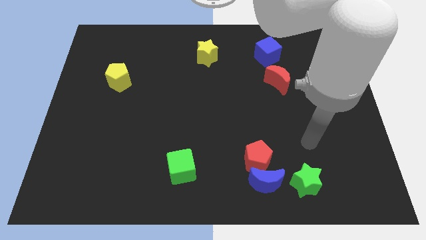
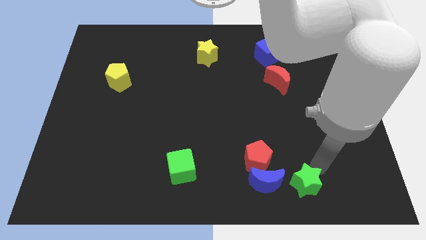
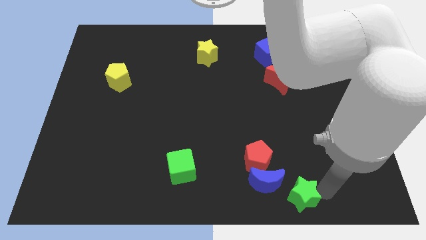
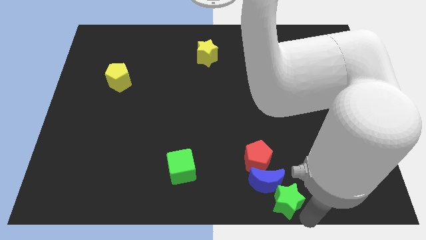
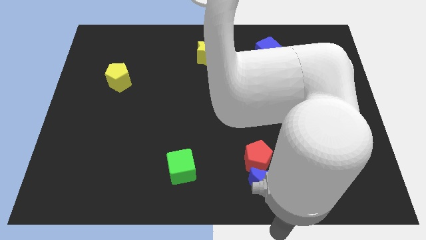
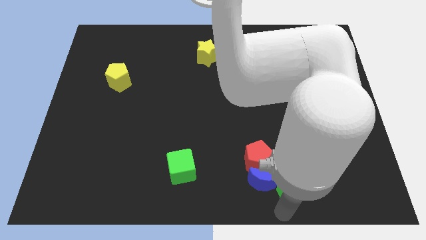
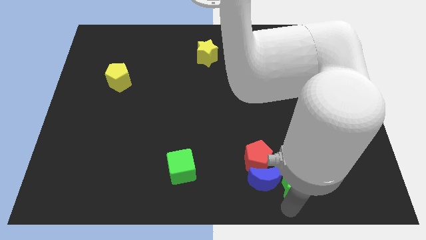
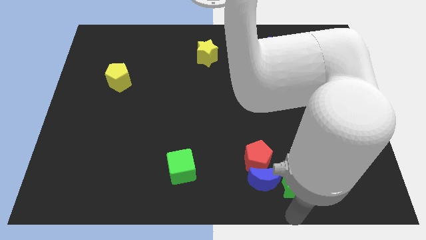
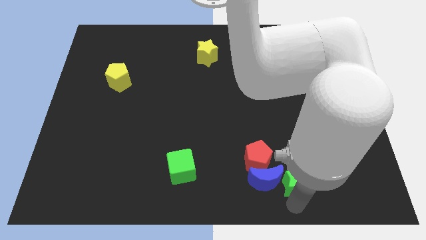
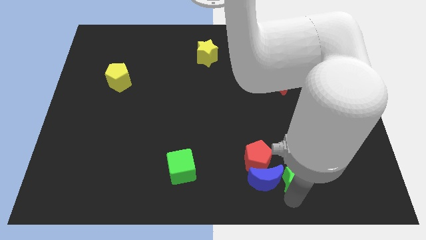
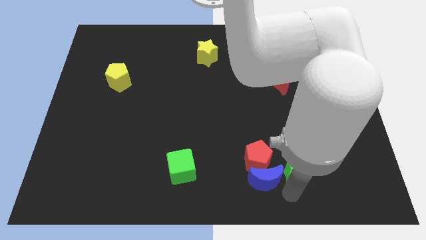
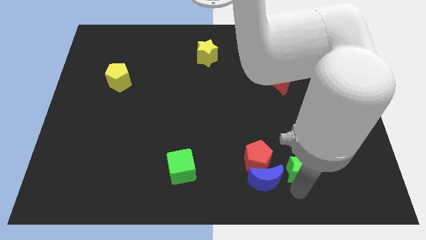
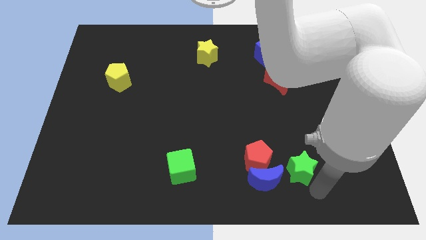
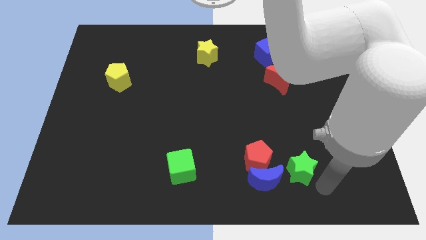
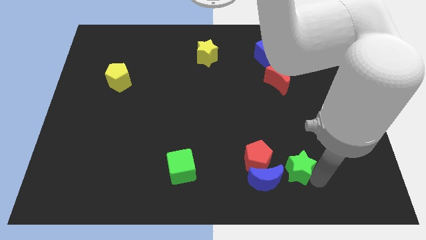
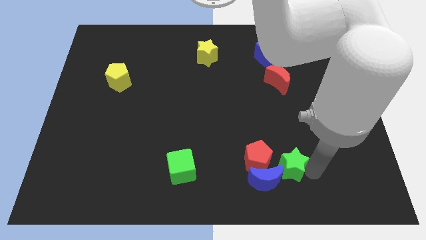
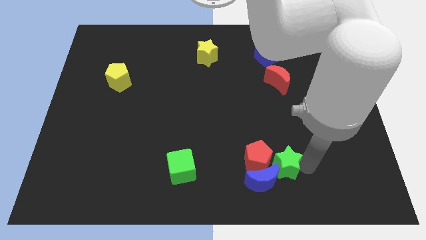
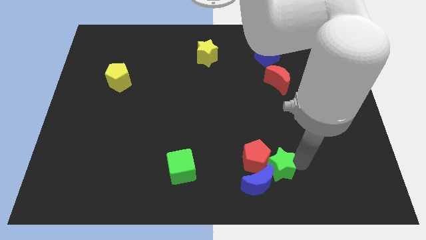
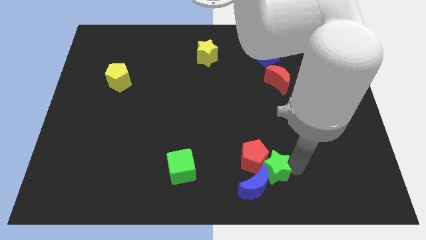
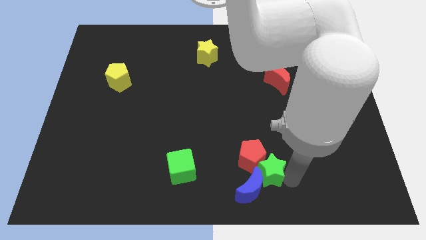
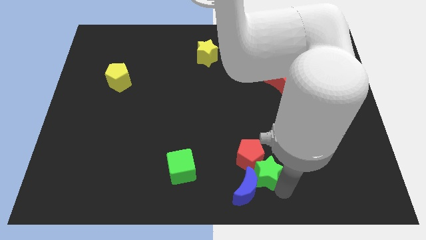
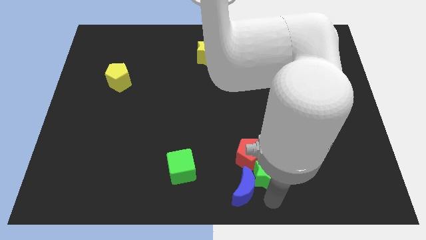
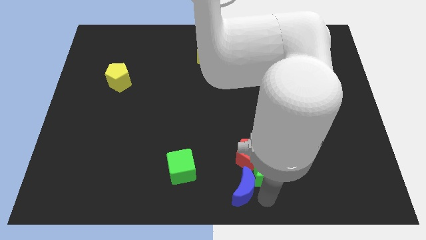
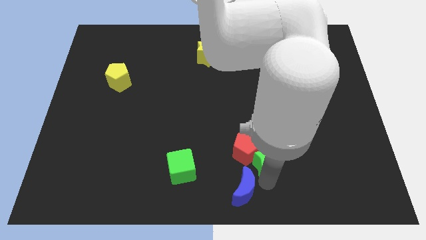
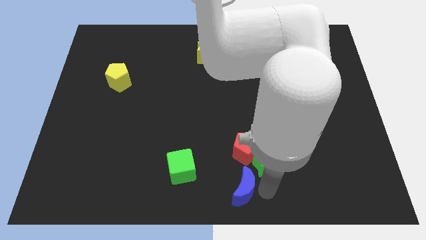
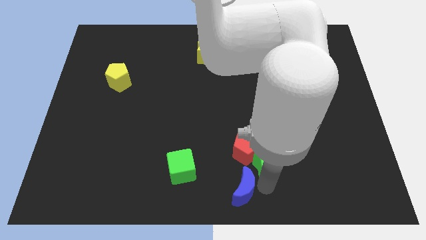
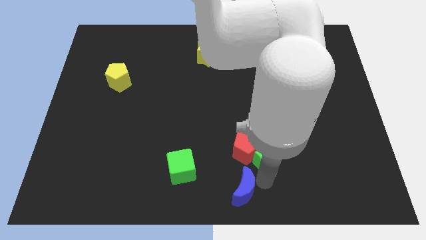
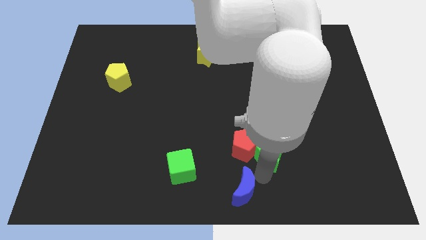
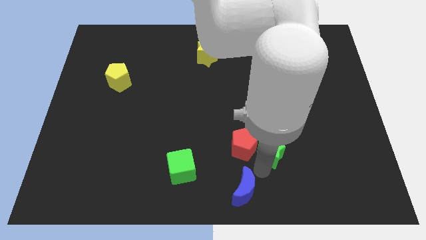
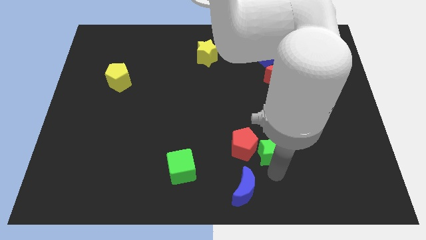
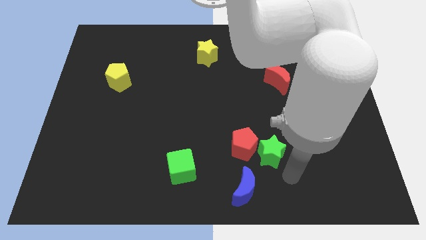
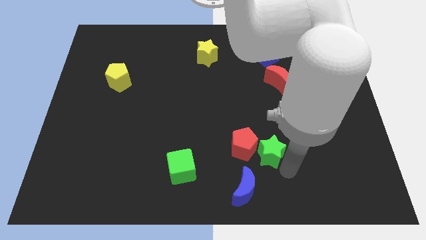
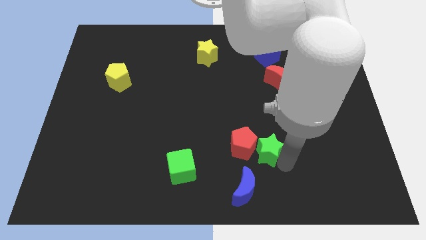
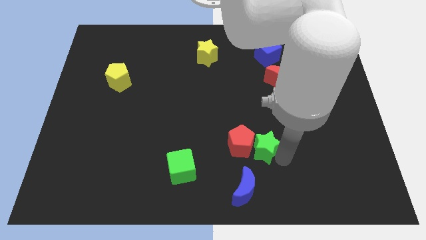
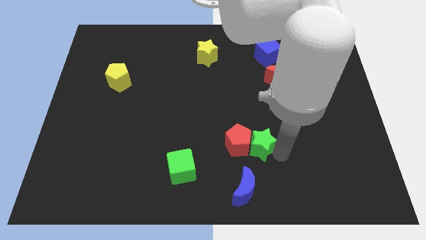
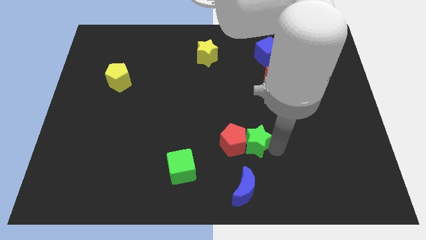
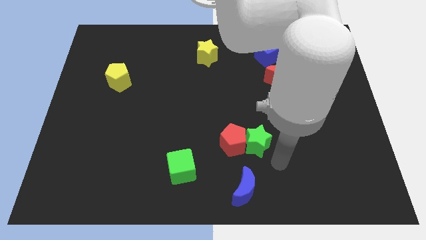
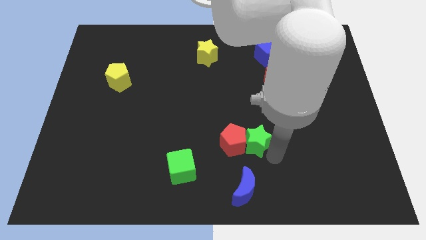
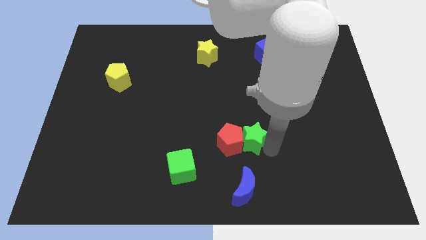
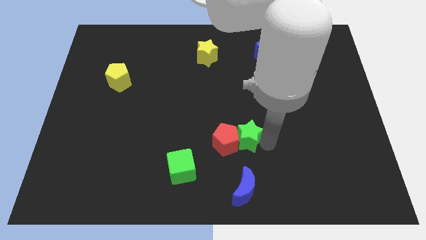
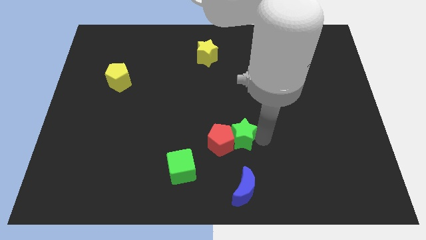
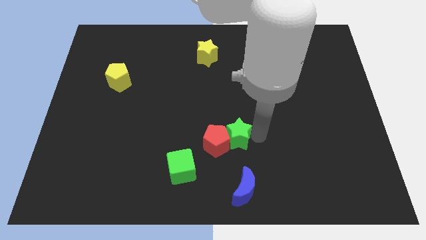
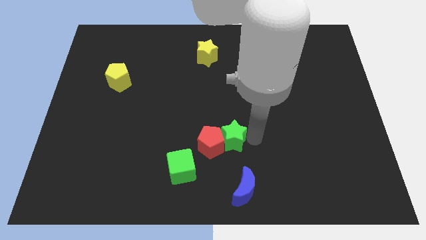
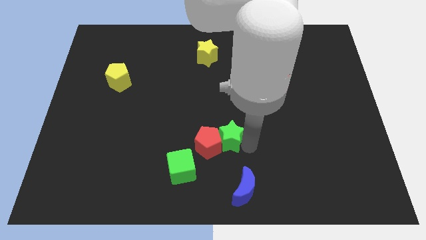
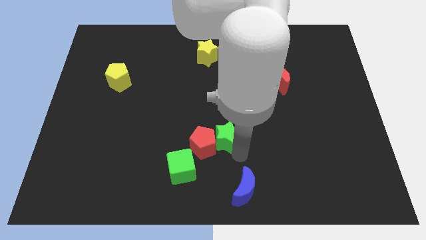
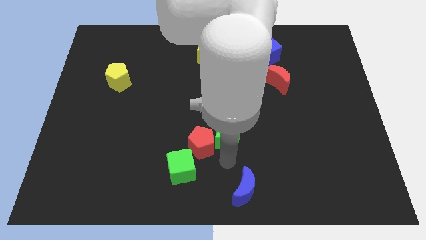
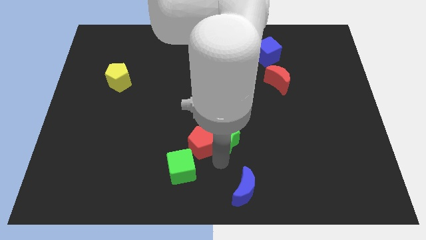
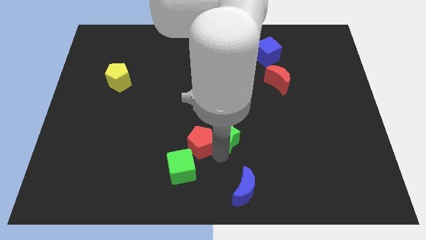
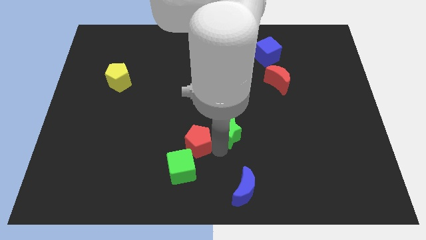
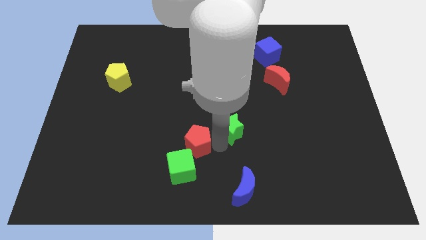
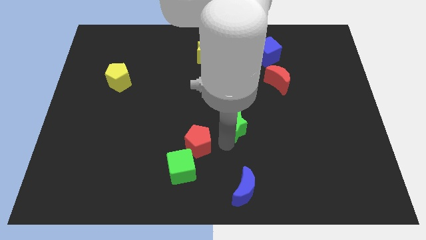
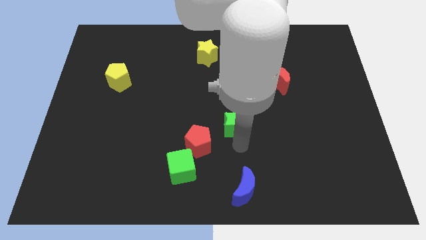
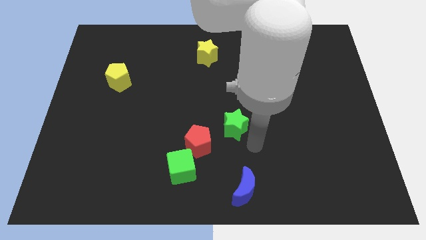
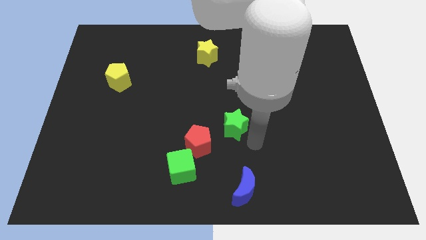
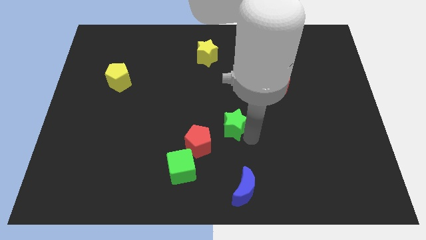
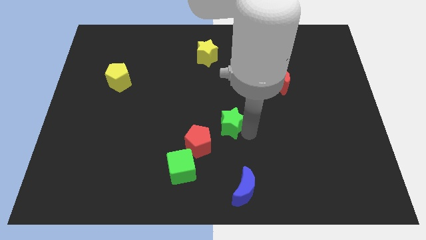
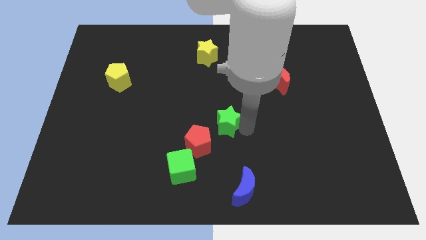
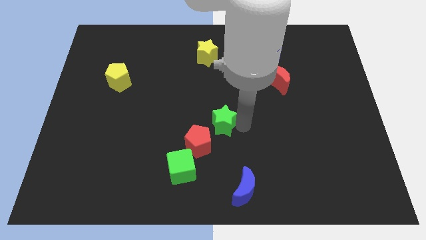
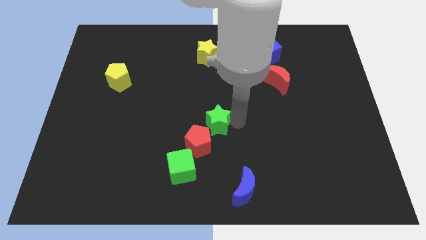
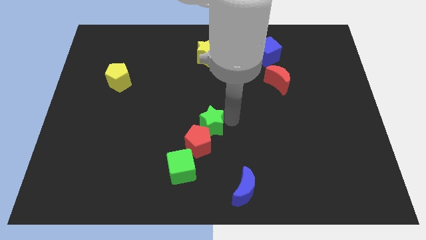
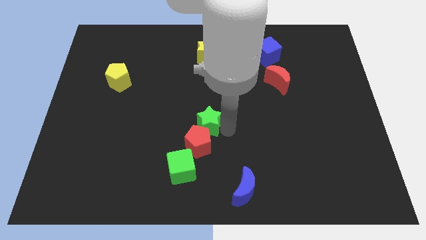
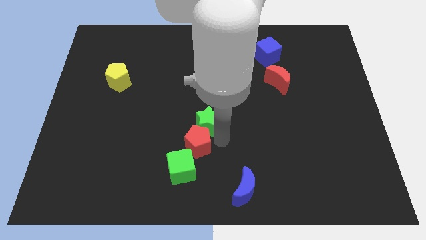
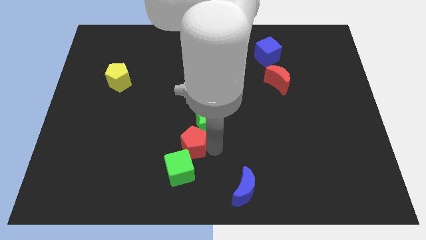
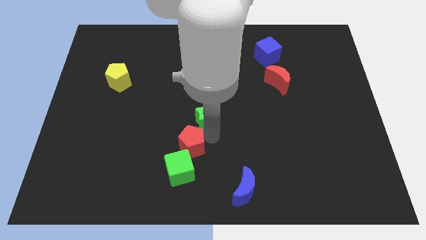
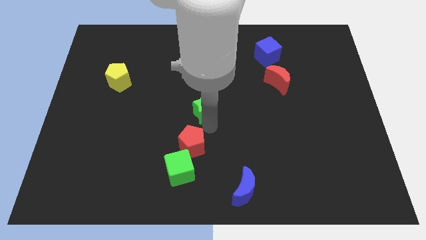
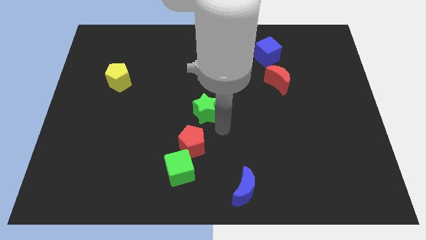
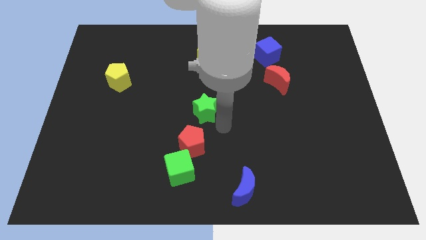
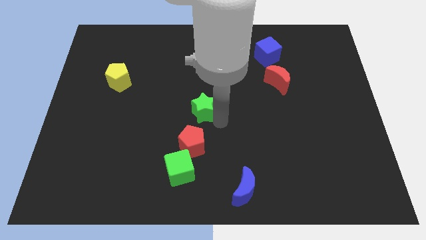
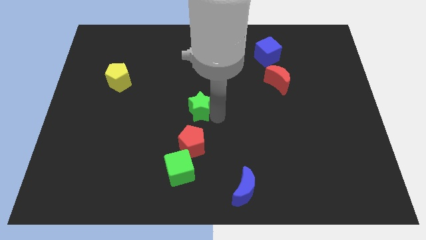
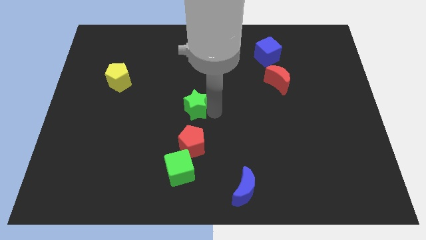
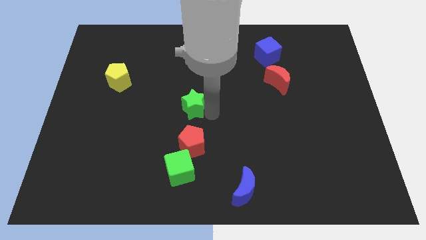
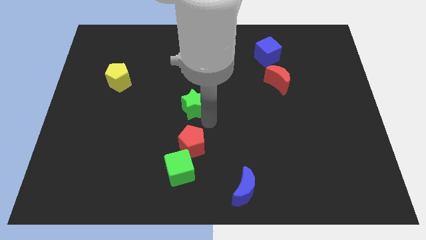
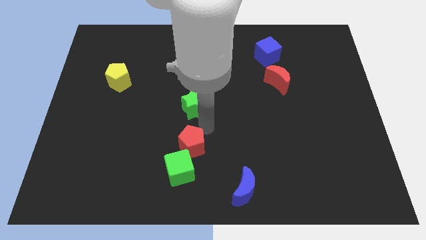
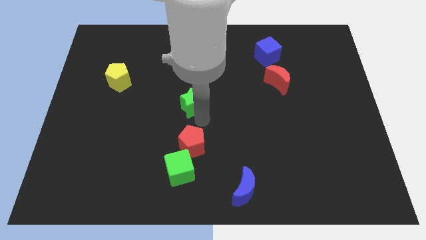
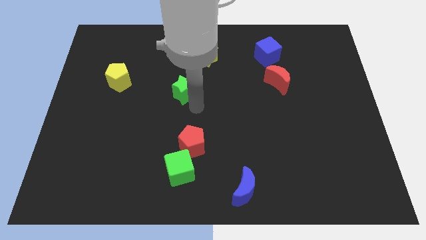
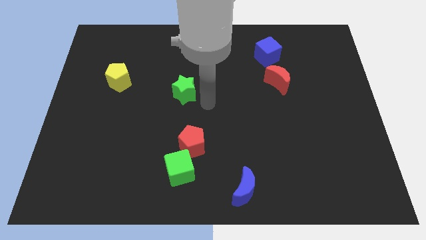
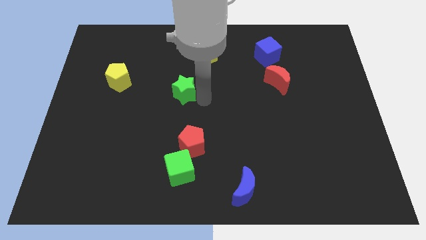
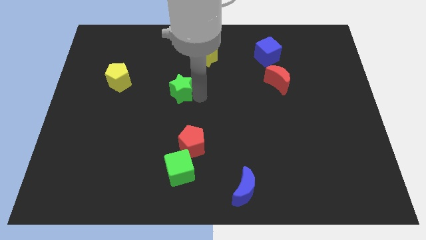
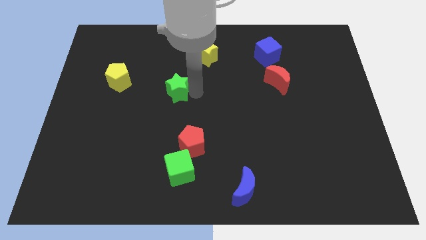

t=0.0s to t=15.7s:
push the green star just right of the yellow pentagon
